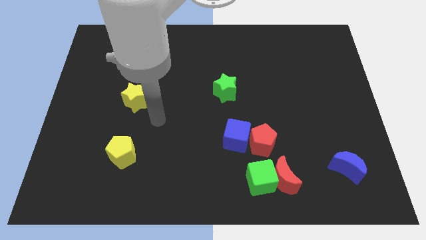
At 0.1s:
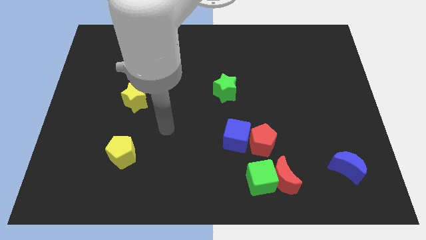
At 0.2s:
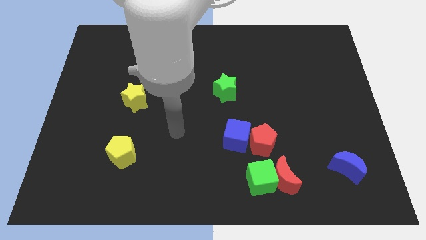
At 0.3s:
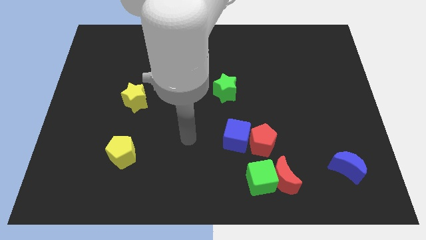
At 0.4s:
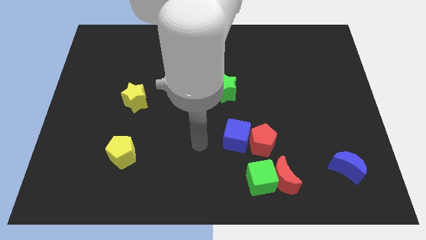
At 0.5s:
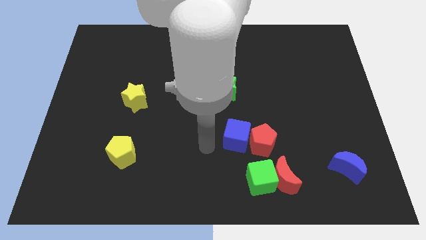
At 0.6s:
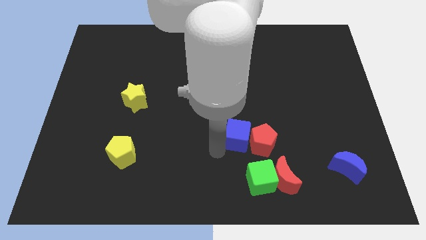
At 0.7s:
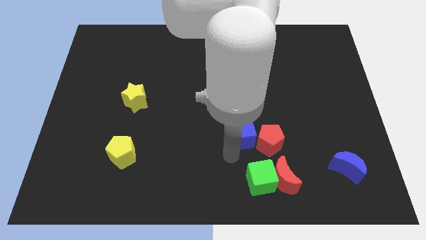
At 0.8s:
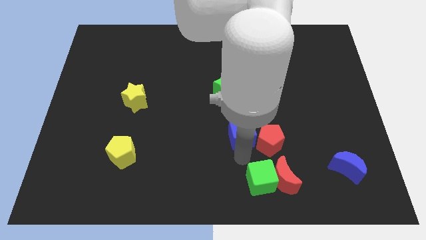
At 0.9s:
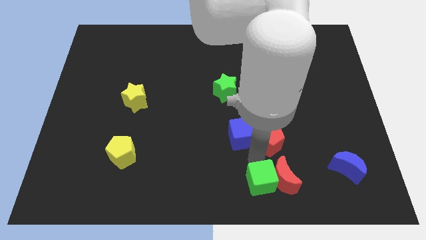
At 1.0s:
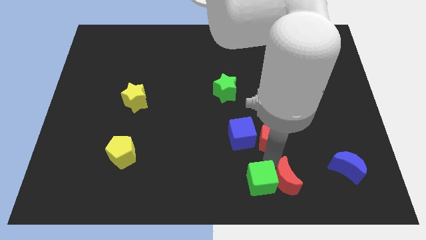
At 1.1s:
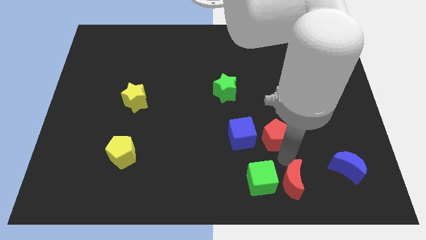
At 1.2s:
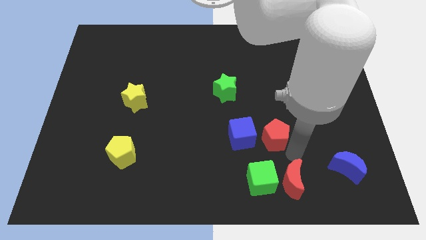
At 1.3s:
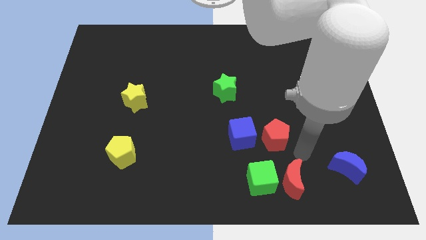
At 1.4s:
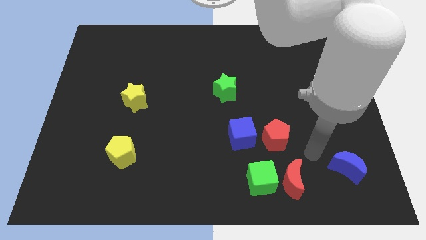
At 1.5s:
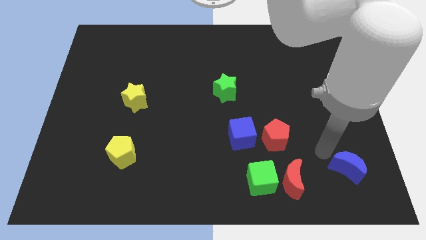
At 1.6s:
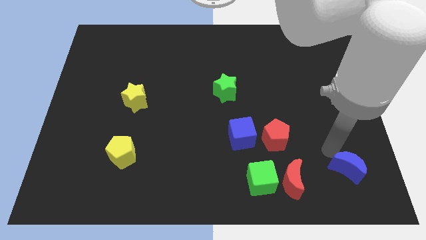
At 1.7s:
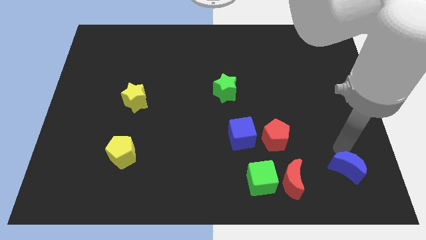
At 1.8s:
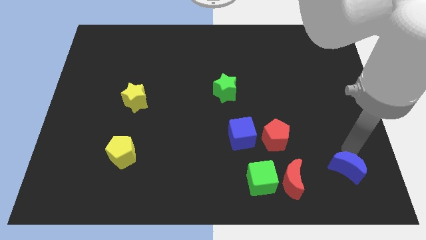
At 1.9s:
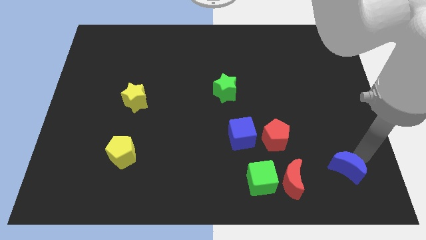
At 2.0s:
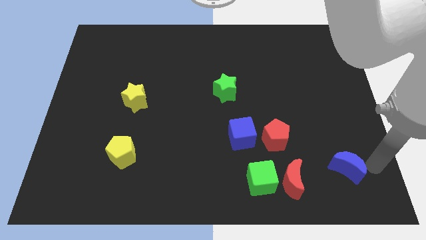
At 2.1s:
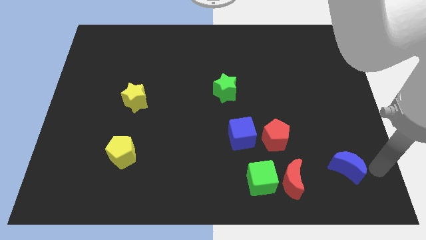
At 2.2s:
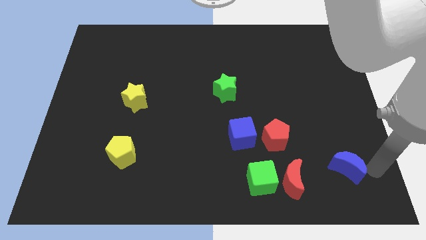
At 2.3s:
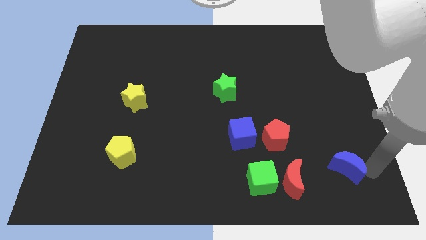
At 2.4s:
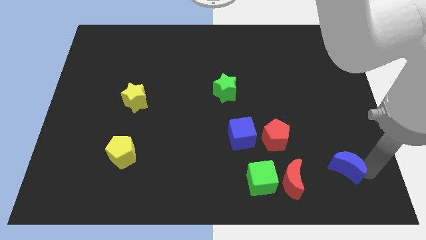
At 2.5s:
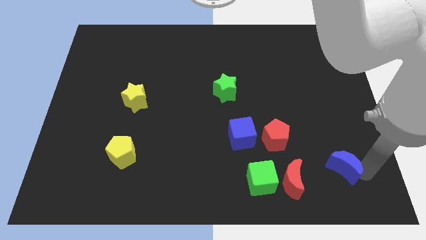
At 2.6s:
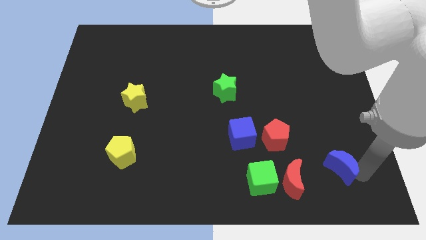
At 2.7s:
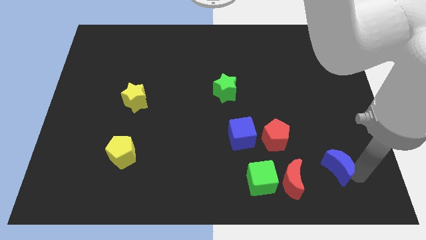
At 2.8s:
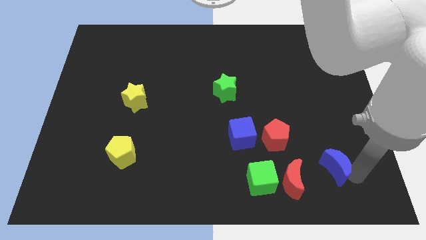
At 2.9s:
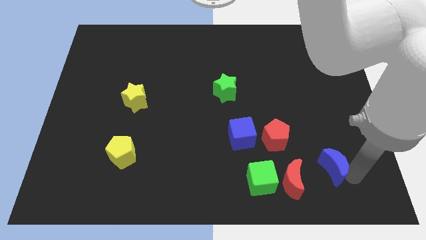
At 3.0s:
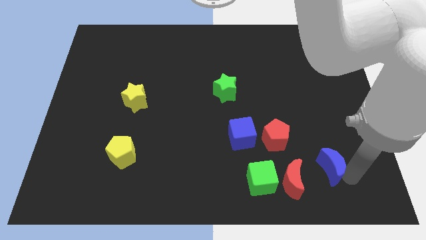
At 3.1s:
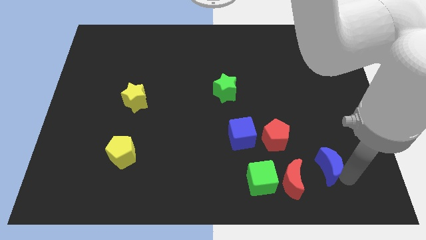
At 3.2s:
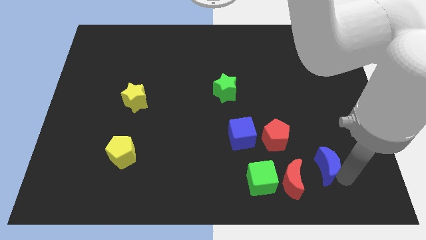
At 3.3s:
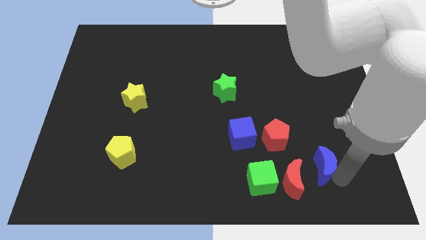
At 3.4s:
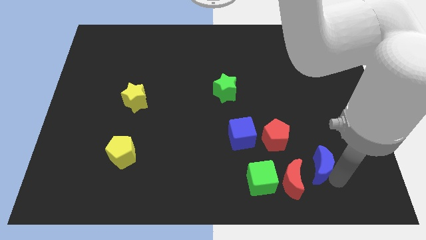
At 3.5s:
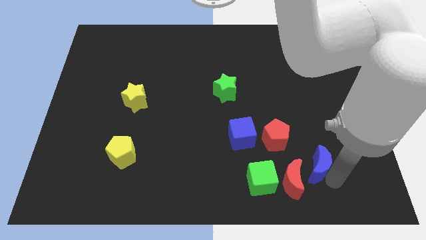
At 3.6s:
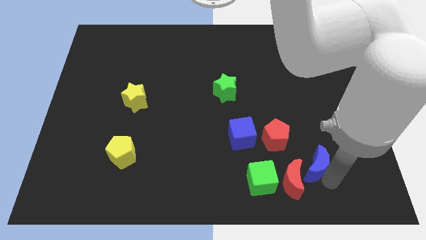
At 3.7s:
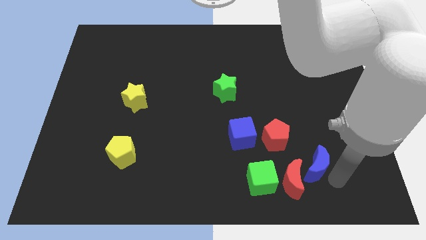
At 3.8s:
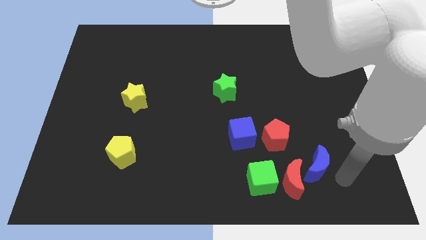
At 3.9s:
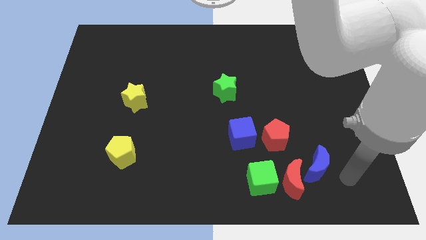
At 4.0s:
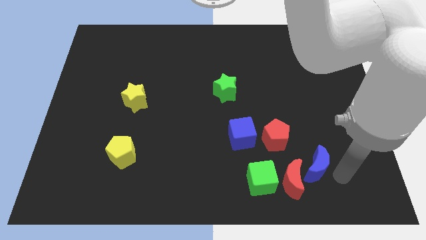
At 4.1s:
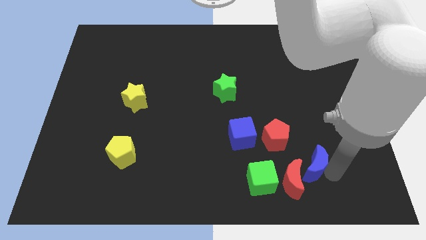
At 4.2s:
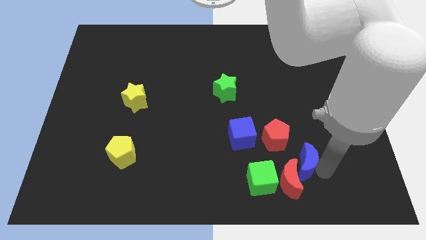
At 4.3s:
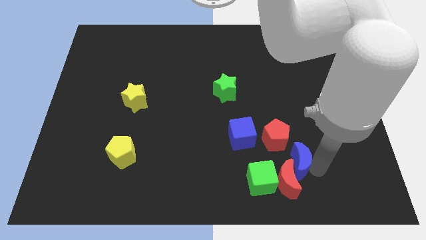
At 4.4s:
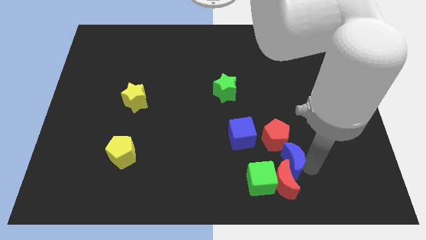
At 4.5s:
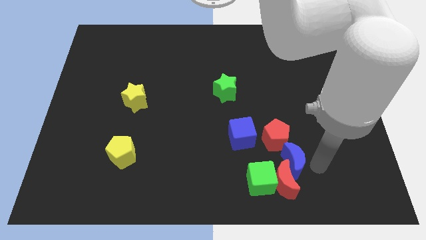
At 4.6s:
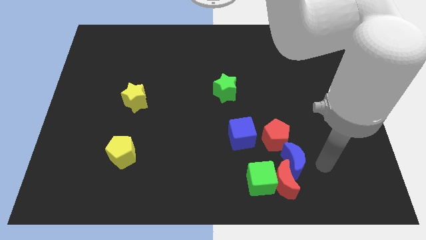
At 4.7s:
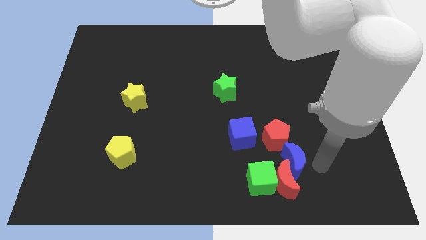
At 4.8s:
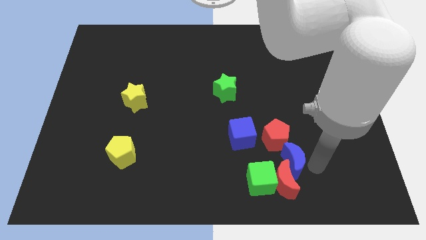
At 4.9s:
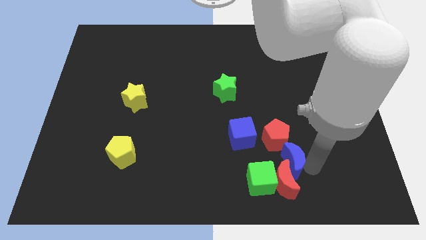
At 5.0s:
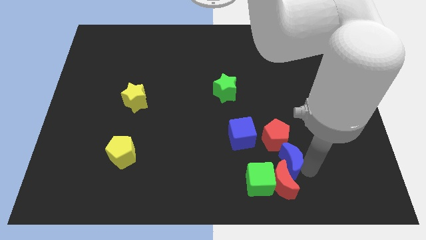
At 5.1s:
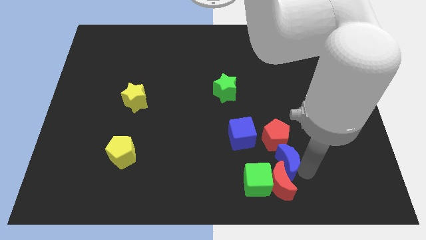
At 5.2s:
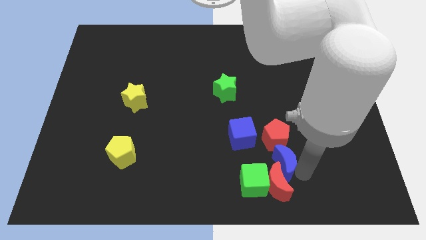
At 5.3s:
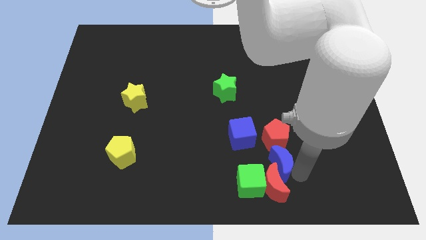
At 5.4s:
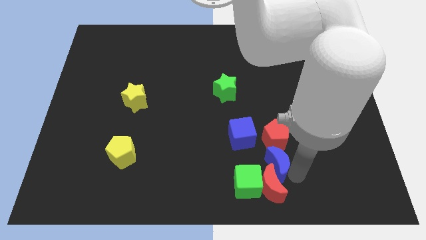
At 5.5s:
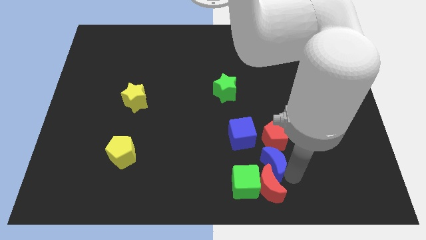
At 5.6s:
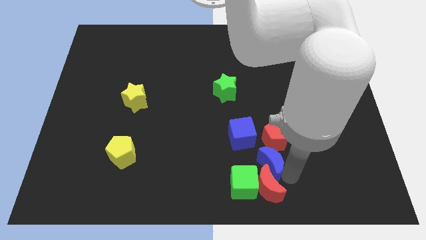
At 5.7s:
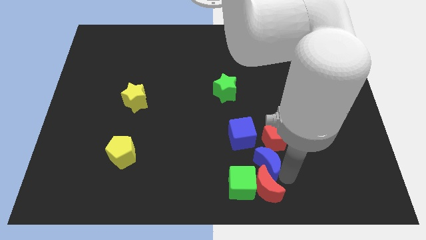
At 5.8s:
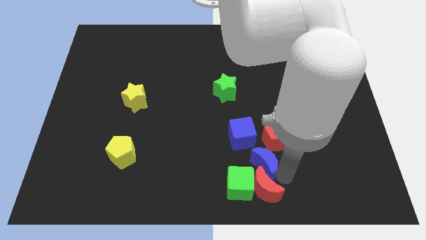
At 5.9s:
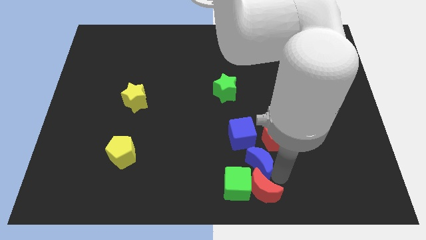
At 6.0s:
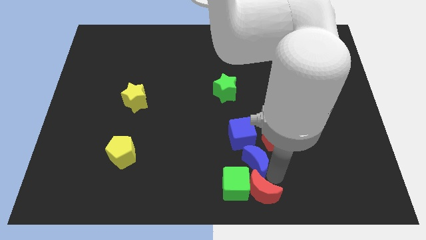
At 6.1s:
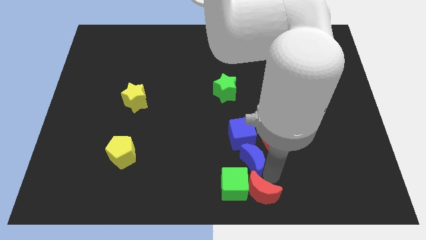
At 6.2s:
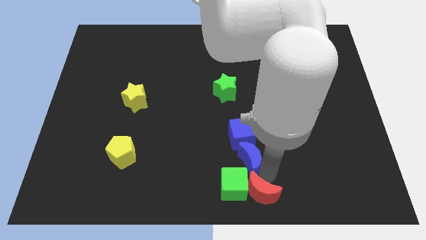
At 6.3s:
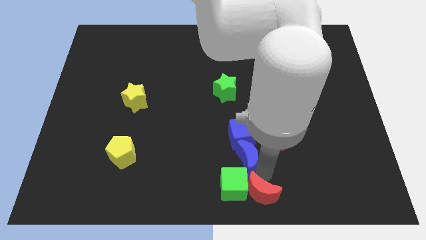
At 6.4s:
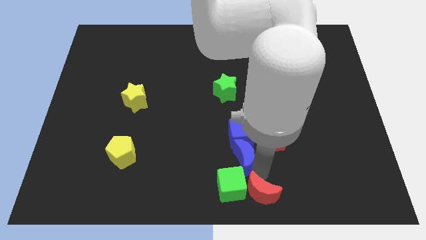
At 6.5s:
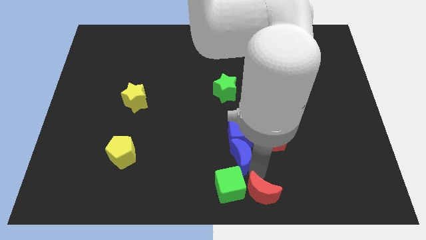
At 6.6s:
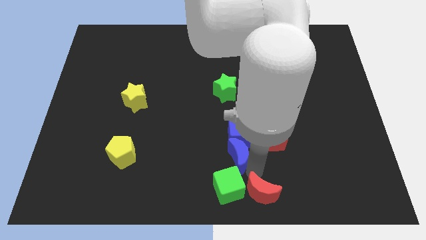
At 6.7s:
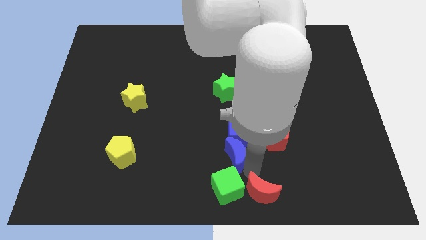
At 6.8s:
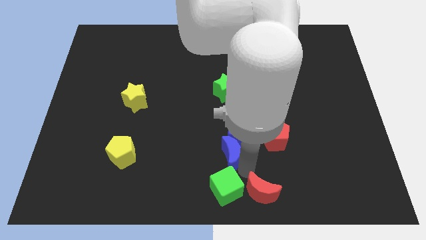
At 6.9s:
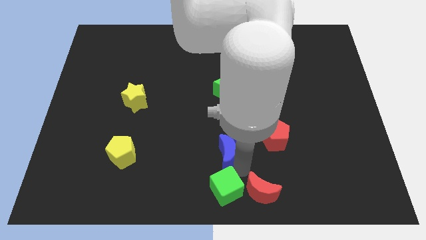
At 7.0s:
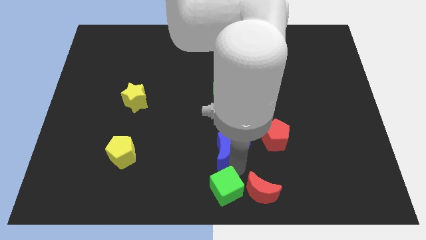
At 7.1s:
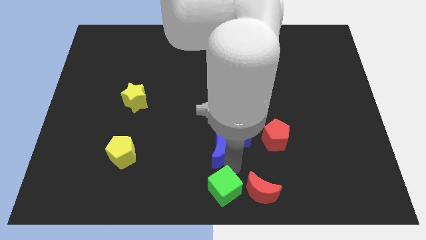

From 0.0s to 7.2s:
put the blue moon to the left side of the blue cube

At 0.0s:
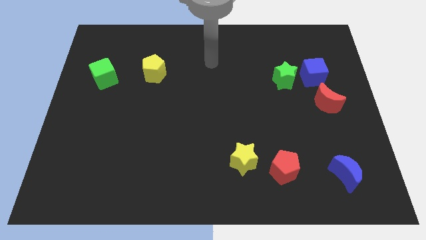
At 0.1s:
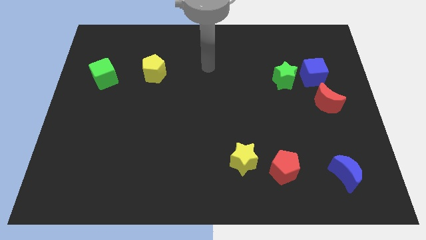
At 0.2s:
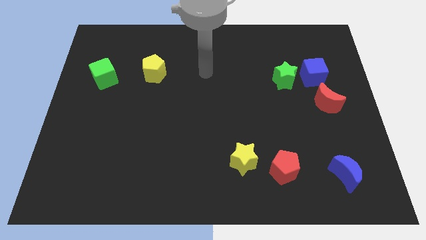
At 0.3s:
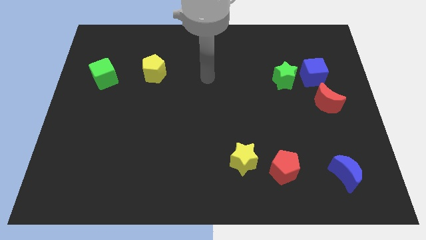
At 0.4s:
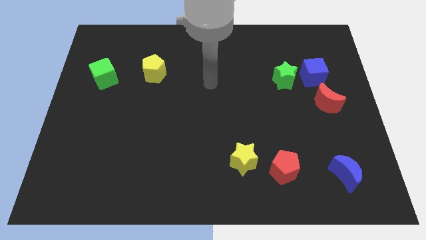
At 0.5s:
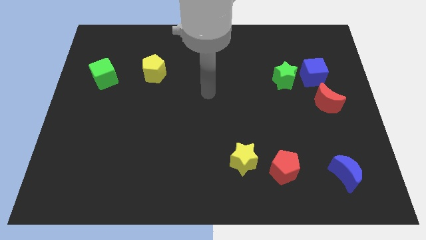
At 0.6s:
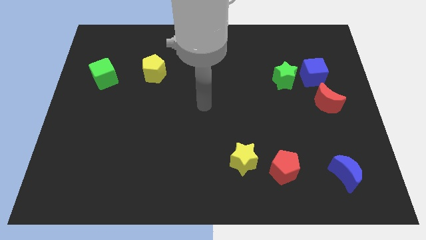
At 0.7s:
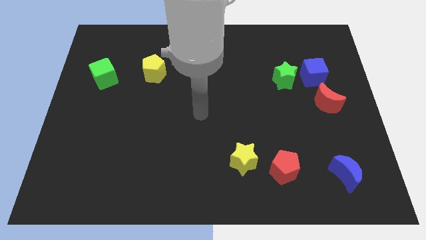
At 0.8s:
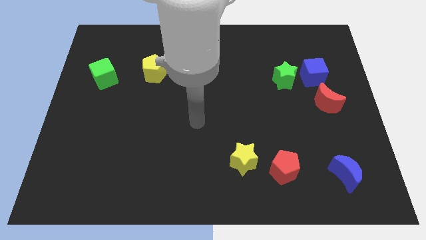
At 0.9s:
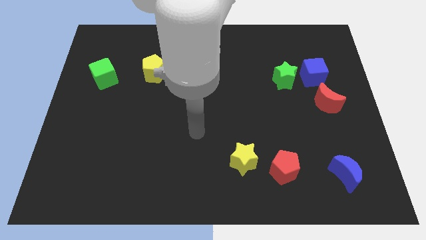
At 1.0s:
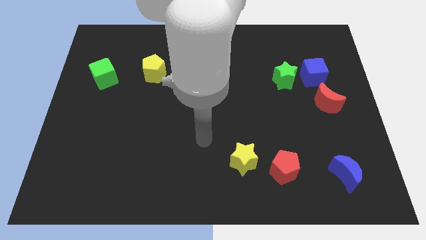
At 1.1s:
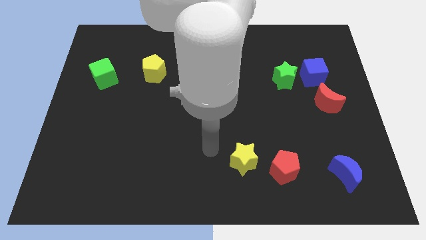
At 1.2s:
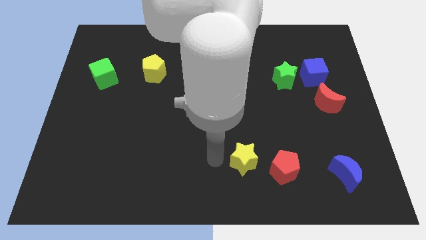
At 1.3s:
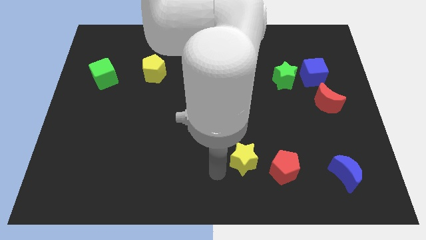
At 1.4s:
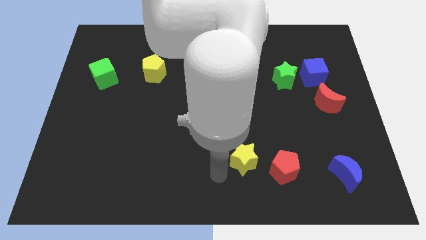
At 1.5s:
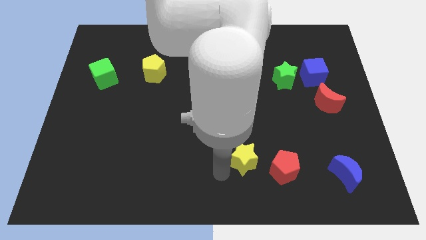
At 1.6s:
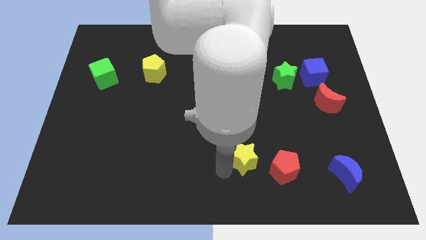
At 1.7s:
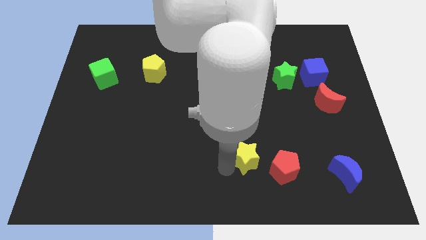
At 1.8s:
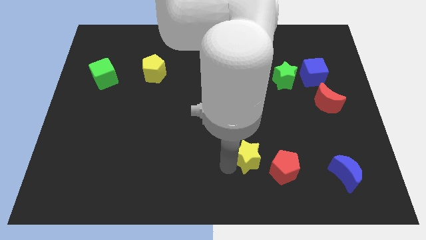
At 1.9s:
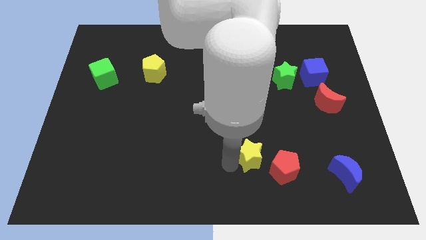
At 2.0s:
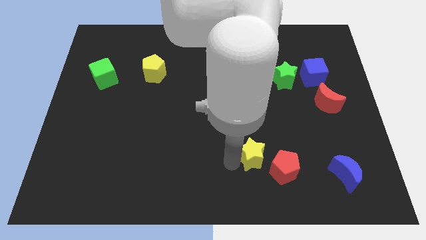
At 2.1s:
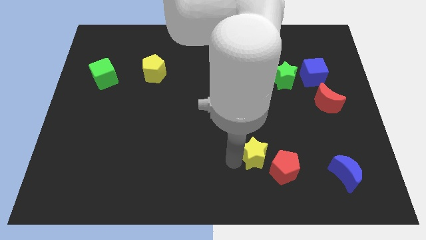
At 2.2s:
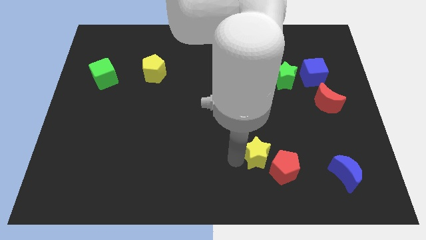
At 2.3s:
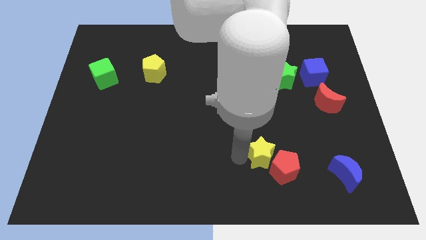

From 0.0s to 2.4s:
push the yellow star to the top side of the red pentagon
